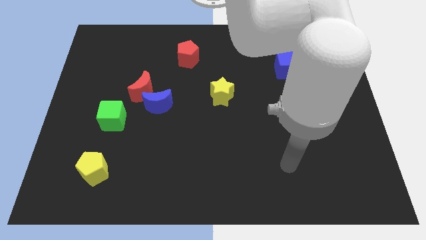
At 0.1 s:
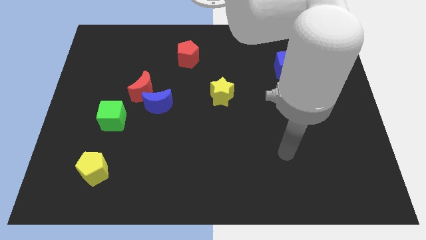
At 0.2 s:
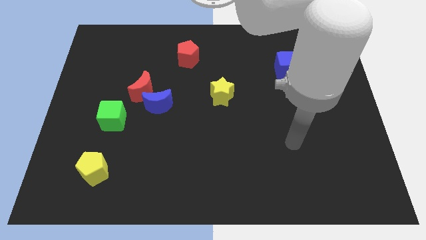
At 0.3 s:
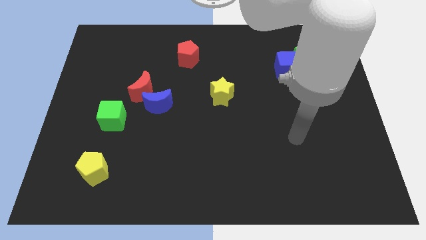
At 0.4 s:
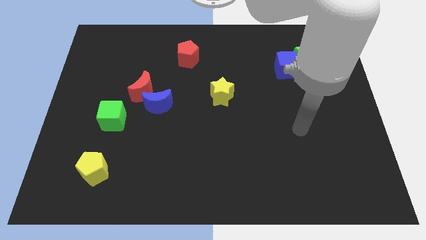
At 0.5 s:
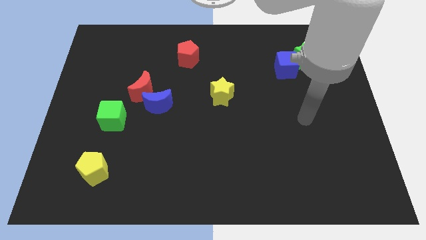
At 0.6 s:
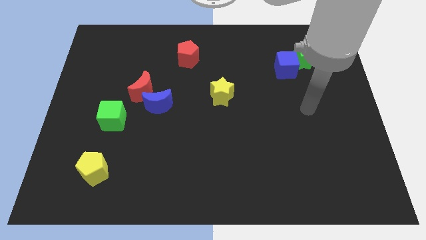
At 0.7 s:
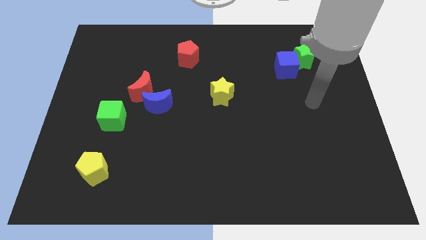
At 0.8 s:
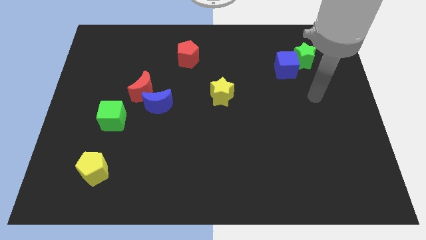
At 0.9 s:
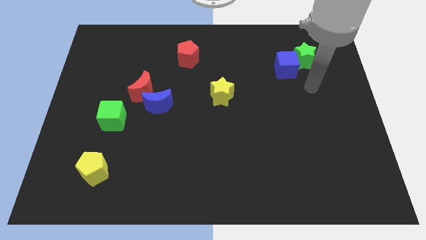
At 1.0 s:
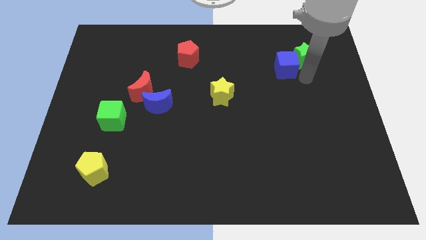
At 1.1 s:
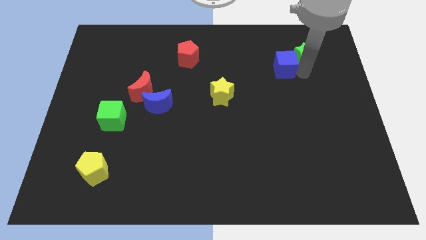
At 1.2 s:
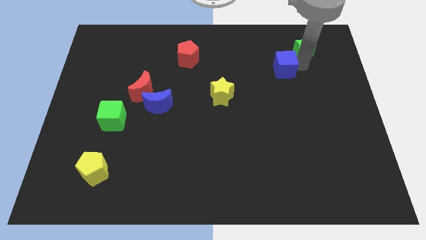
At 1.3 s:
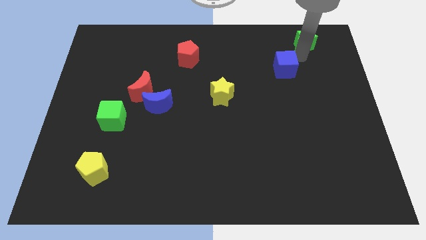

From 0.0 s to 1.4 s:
move the blue cube away from the green star

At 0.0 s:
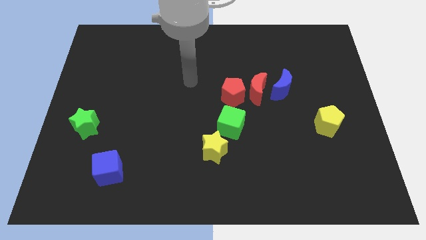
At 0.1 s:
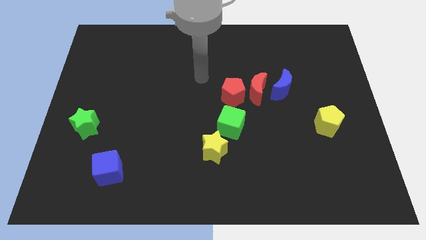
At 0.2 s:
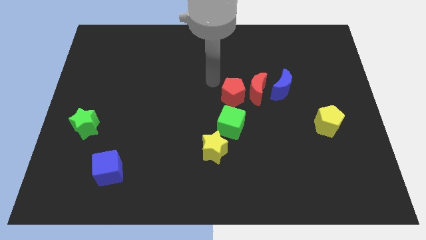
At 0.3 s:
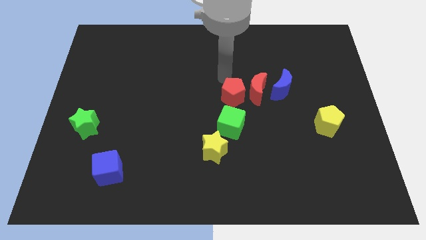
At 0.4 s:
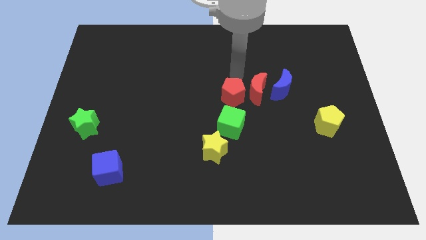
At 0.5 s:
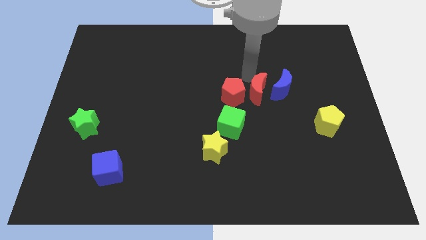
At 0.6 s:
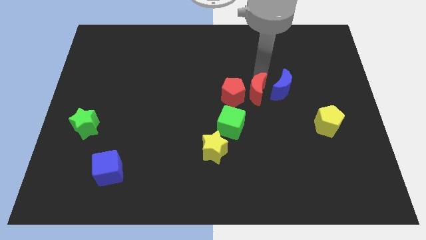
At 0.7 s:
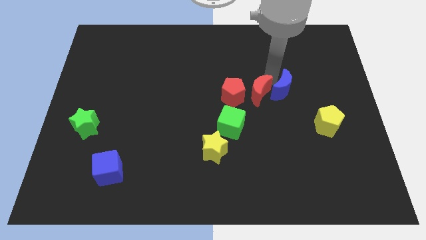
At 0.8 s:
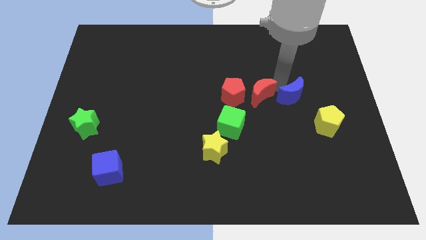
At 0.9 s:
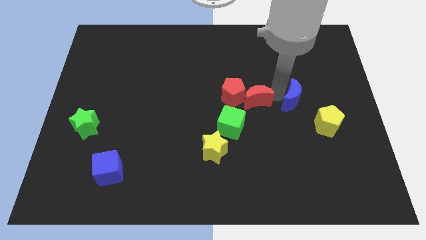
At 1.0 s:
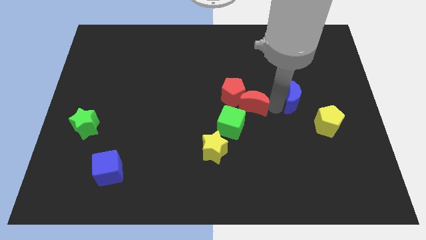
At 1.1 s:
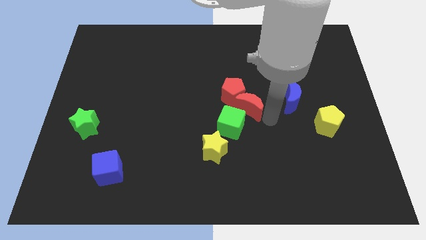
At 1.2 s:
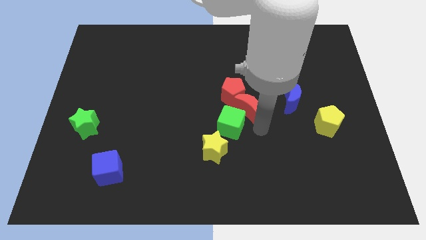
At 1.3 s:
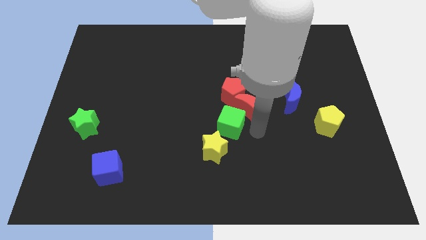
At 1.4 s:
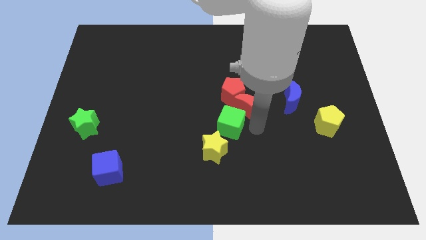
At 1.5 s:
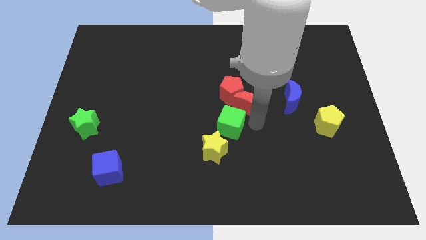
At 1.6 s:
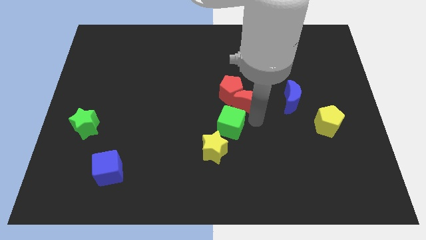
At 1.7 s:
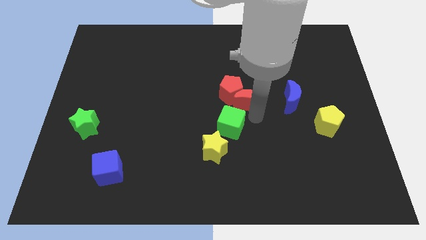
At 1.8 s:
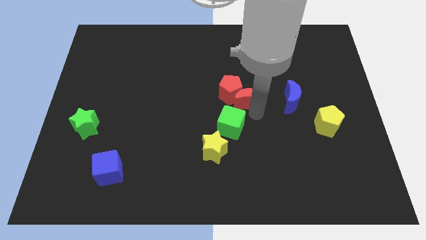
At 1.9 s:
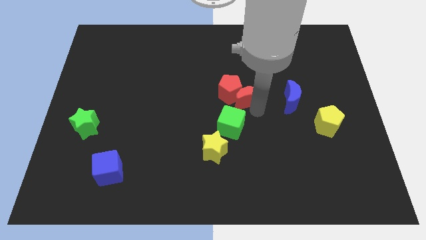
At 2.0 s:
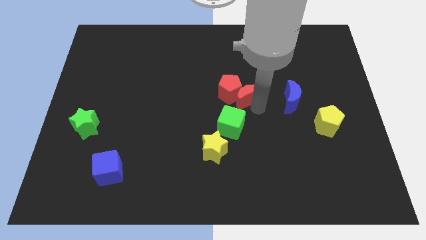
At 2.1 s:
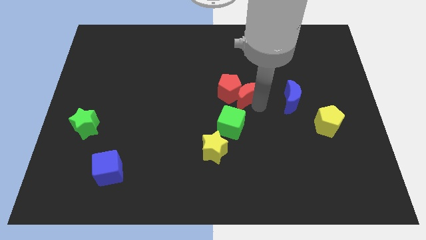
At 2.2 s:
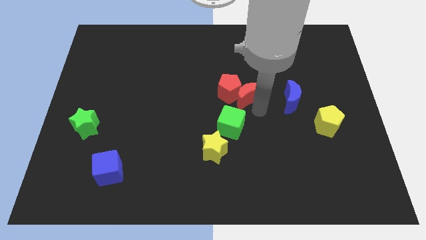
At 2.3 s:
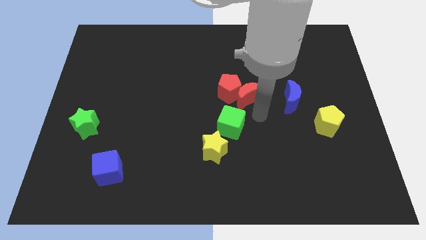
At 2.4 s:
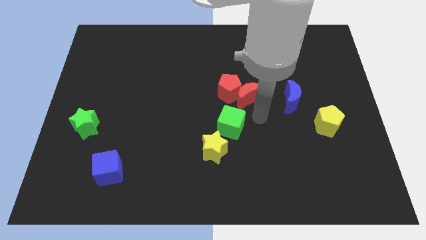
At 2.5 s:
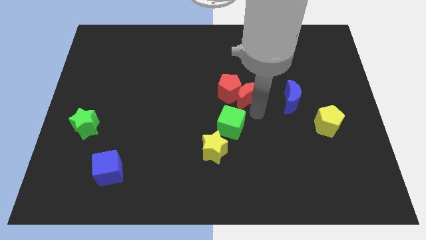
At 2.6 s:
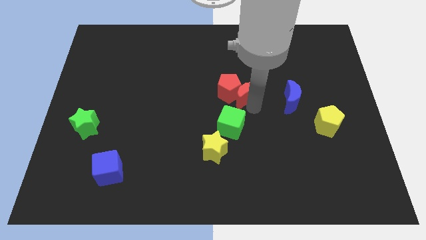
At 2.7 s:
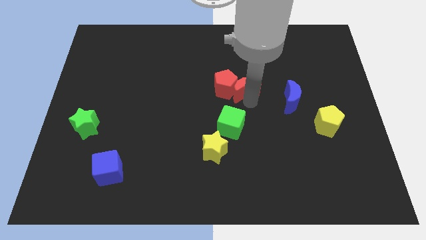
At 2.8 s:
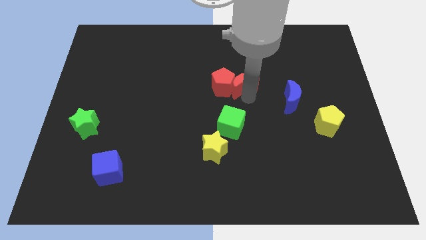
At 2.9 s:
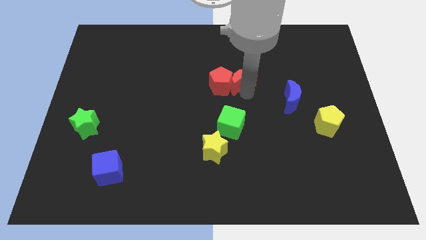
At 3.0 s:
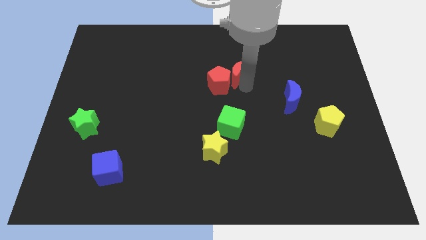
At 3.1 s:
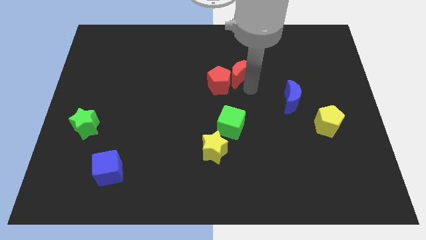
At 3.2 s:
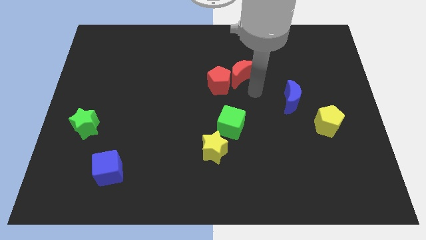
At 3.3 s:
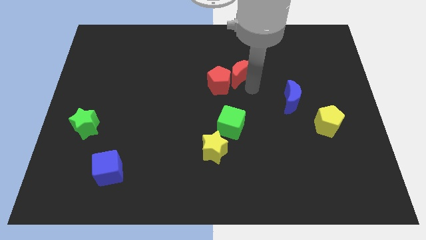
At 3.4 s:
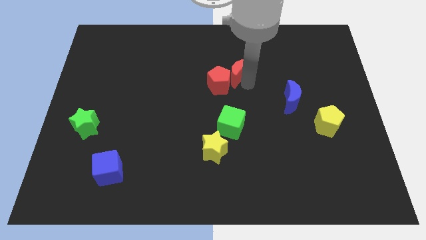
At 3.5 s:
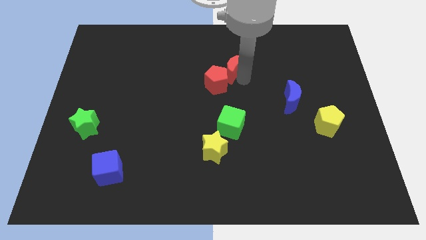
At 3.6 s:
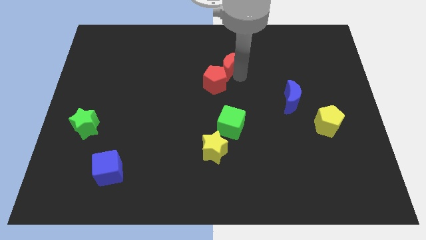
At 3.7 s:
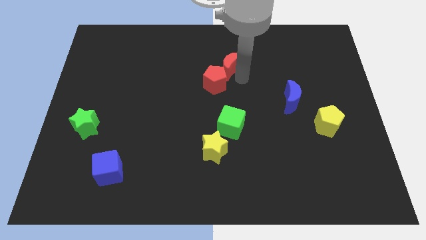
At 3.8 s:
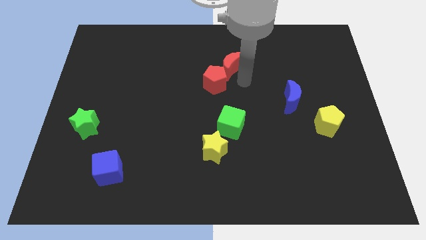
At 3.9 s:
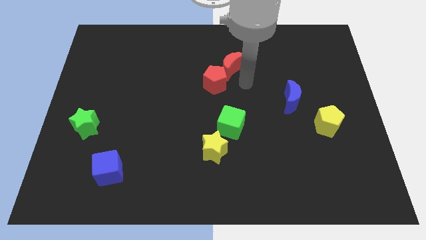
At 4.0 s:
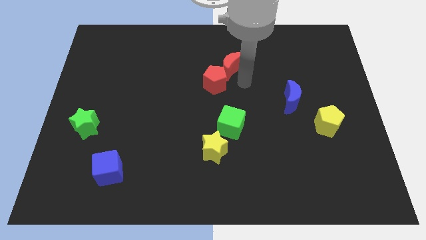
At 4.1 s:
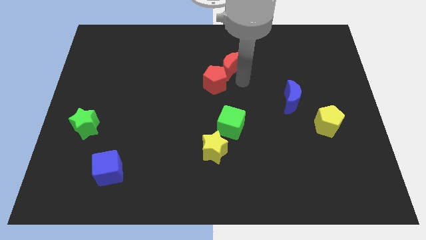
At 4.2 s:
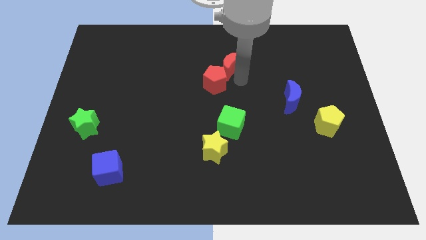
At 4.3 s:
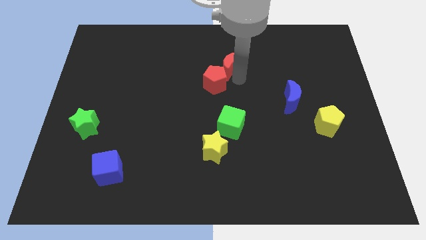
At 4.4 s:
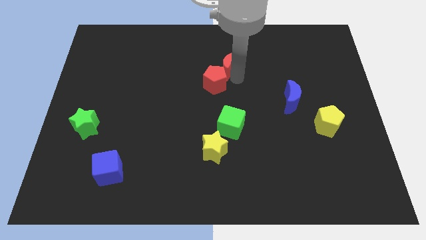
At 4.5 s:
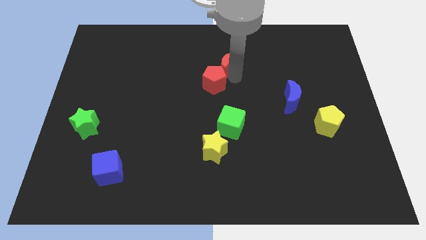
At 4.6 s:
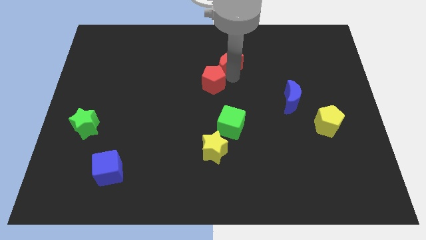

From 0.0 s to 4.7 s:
separate the red moon from the red pentagon and blue moon

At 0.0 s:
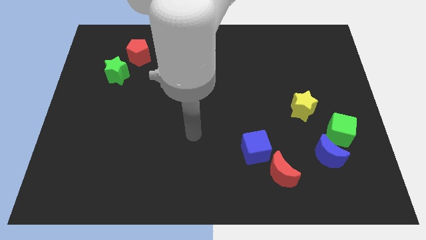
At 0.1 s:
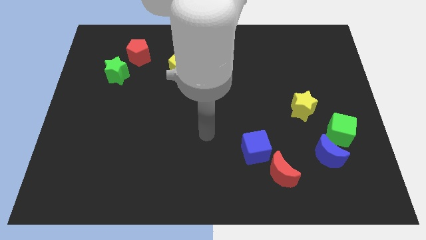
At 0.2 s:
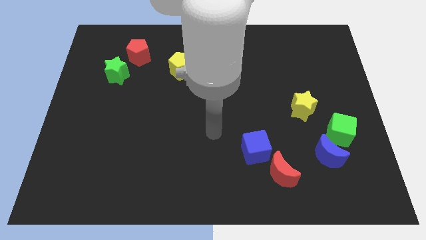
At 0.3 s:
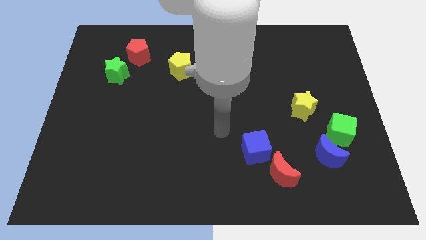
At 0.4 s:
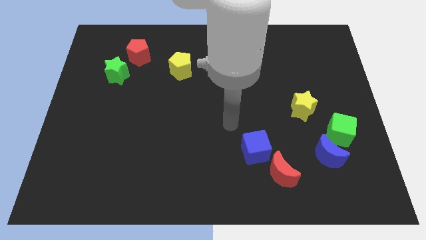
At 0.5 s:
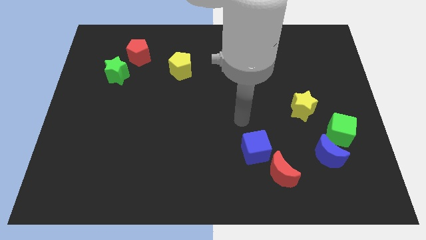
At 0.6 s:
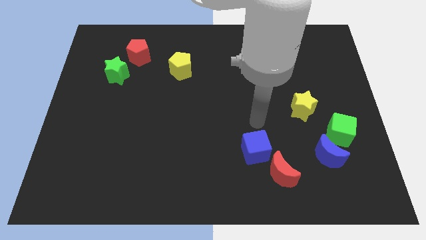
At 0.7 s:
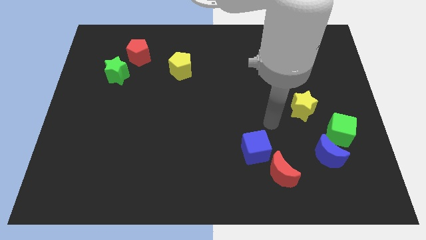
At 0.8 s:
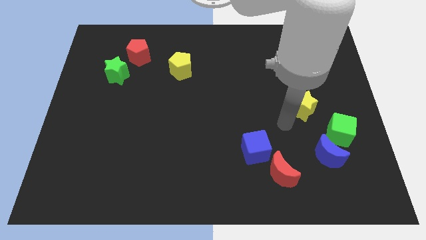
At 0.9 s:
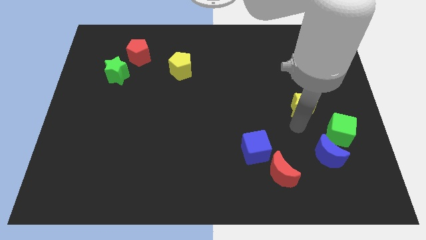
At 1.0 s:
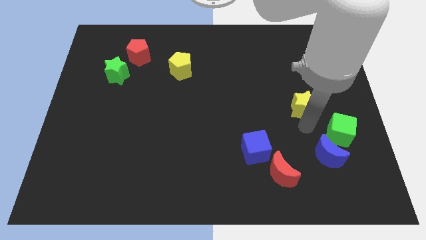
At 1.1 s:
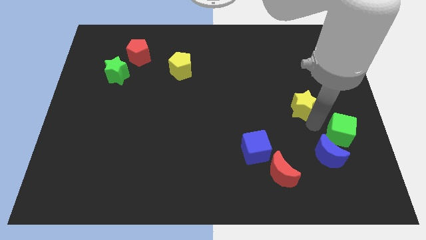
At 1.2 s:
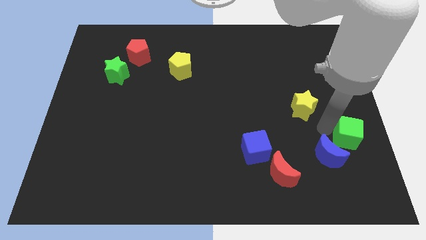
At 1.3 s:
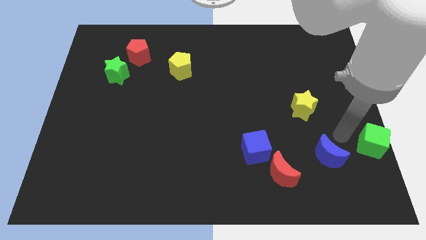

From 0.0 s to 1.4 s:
pull the blue moon apart from the green cube

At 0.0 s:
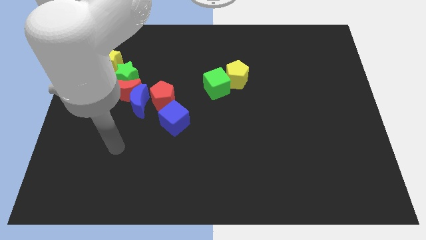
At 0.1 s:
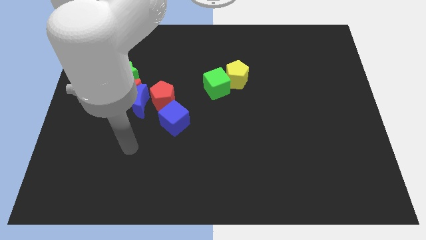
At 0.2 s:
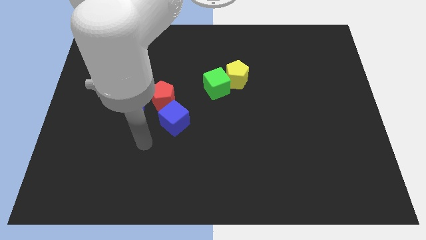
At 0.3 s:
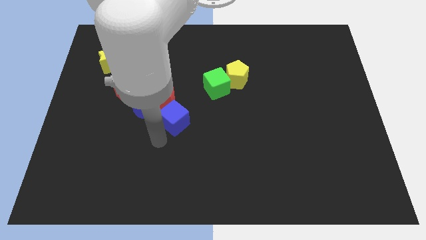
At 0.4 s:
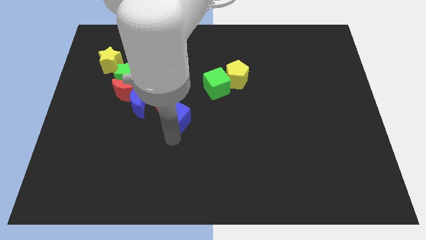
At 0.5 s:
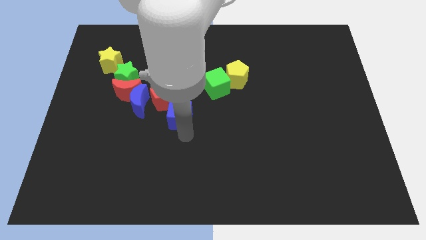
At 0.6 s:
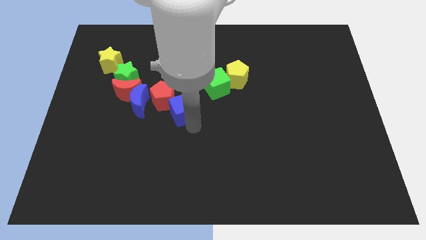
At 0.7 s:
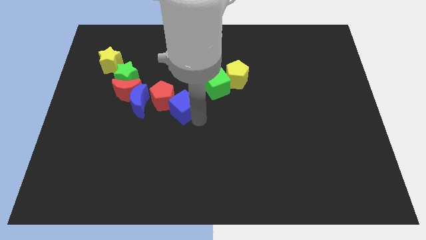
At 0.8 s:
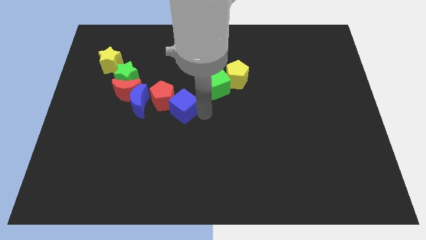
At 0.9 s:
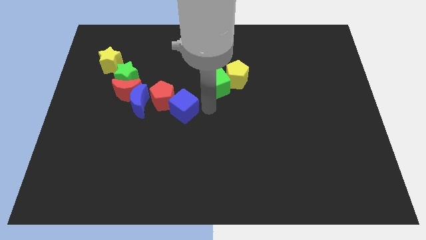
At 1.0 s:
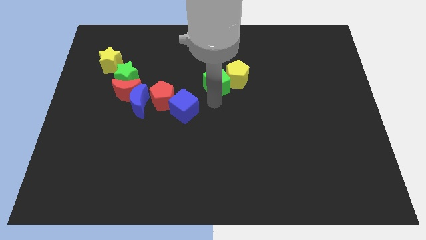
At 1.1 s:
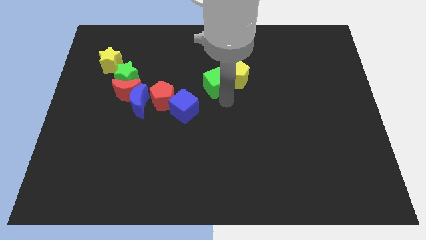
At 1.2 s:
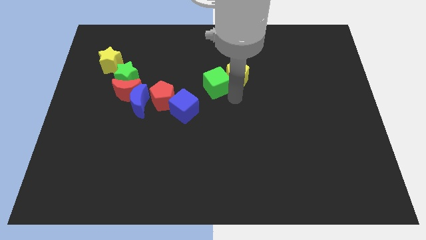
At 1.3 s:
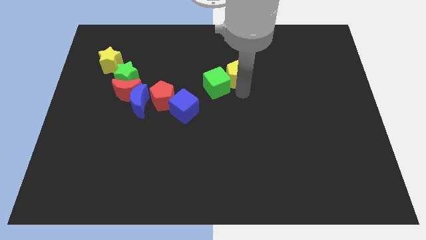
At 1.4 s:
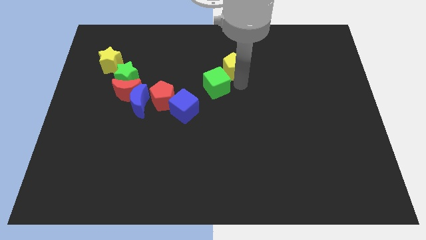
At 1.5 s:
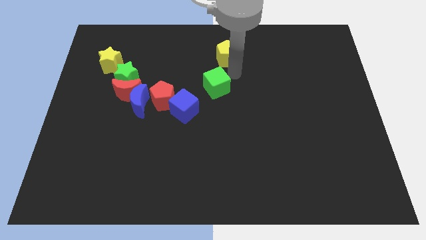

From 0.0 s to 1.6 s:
pull the green cube apart from the yellow pentagon

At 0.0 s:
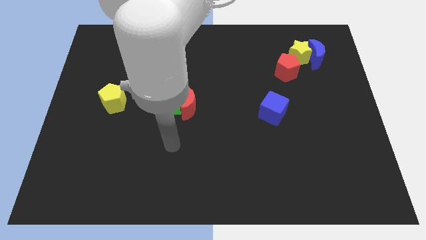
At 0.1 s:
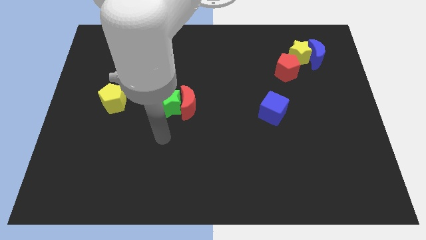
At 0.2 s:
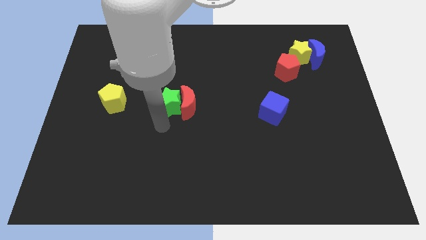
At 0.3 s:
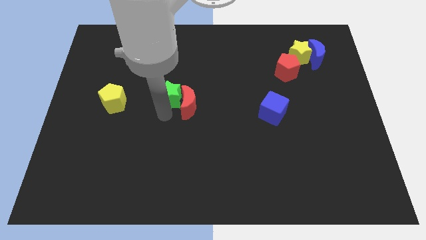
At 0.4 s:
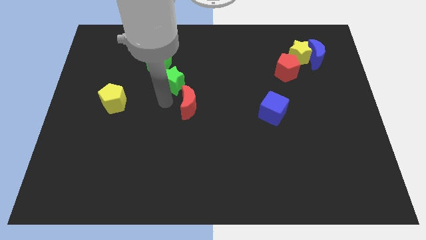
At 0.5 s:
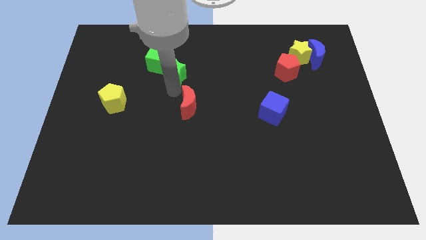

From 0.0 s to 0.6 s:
move the red moon away from the green star
